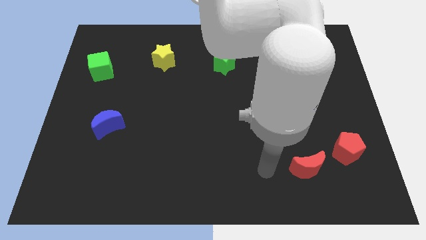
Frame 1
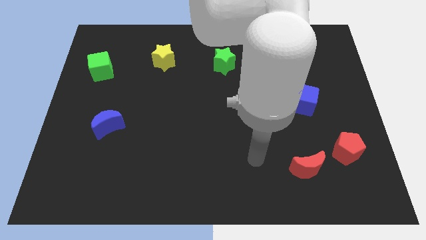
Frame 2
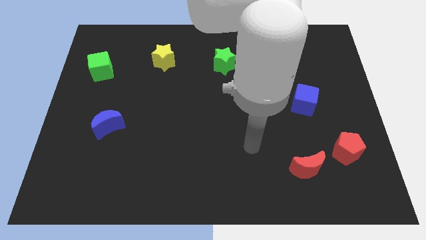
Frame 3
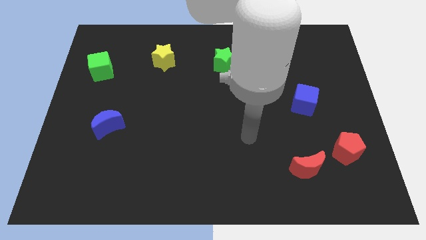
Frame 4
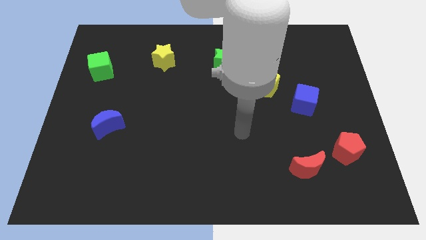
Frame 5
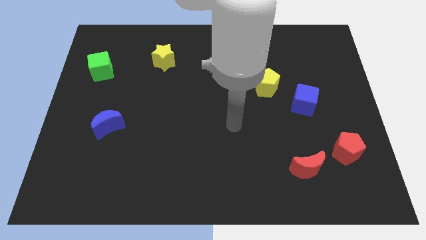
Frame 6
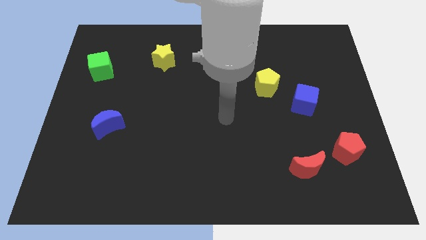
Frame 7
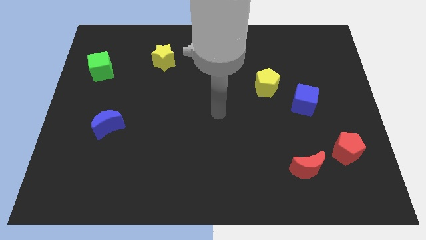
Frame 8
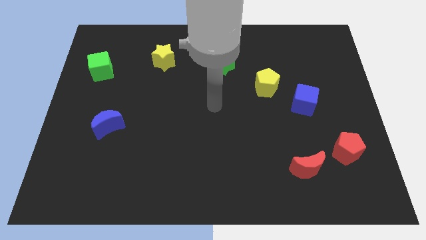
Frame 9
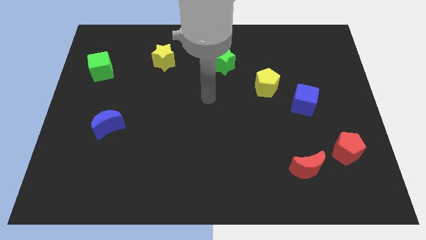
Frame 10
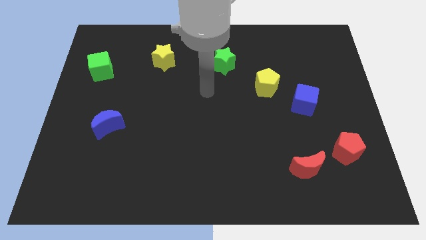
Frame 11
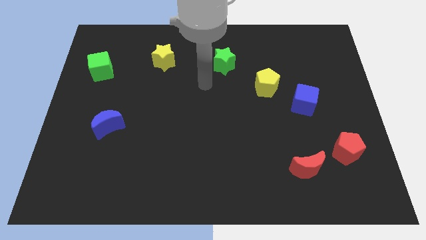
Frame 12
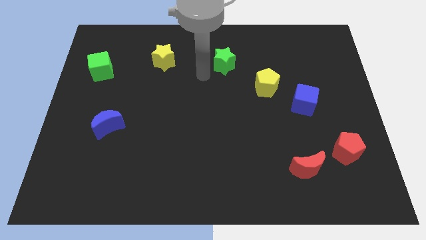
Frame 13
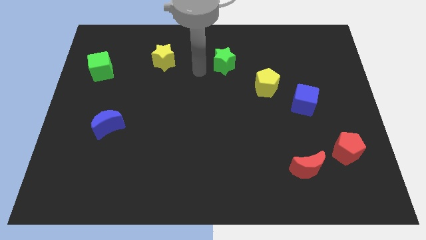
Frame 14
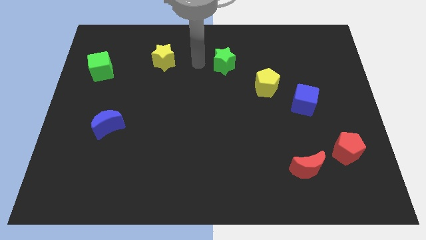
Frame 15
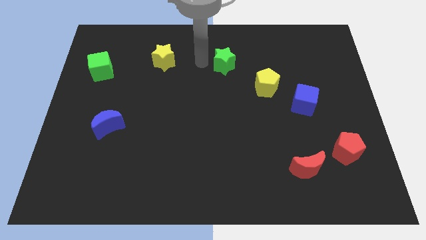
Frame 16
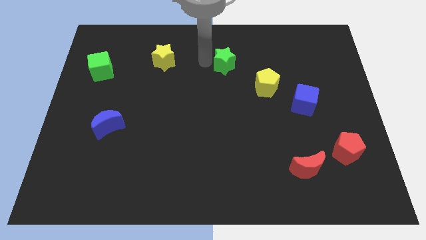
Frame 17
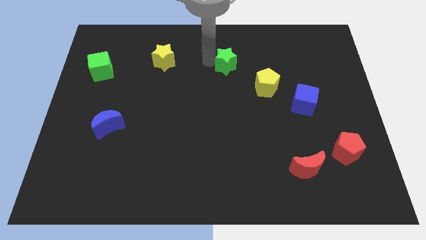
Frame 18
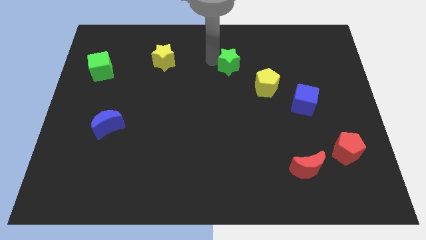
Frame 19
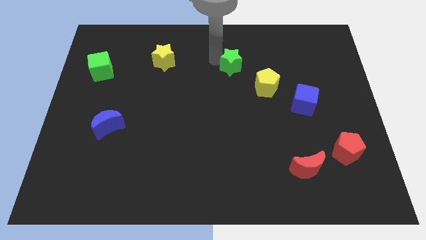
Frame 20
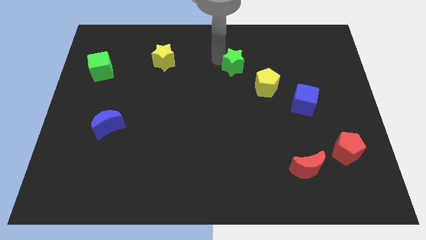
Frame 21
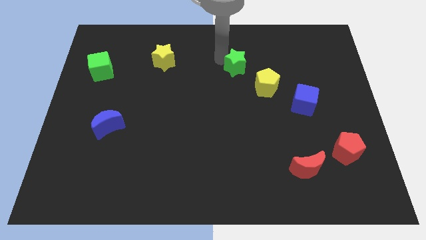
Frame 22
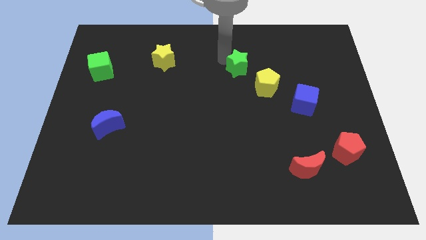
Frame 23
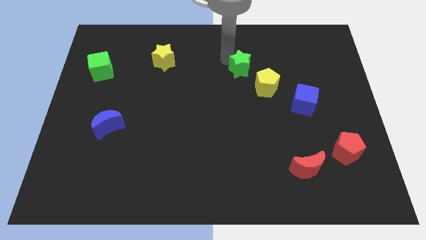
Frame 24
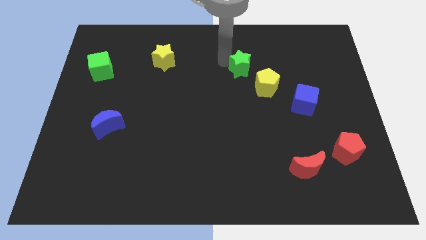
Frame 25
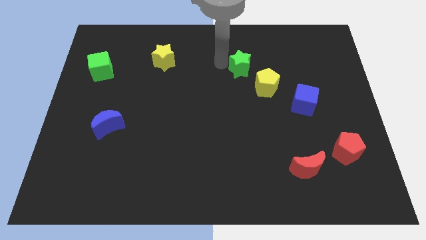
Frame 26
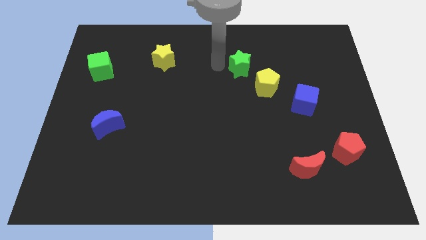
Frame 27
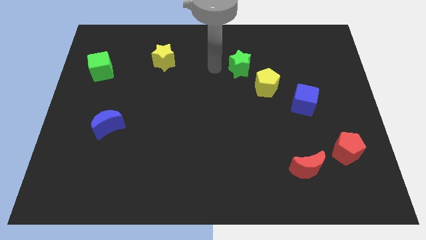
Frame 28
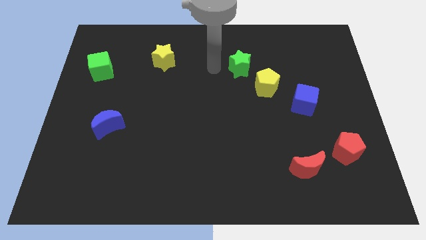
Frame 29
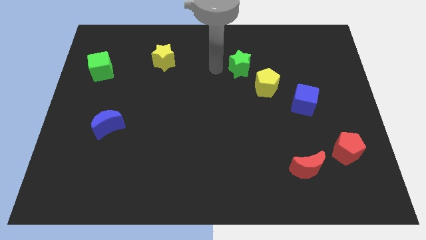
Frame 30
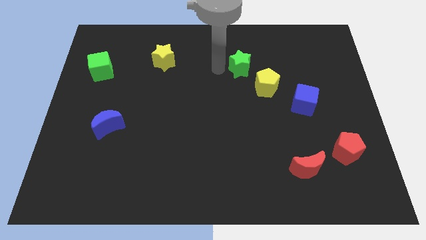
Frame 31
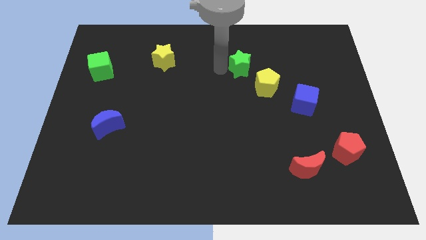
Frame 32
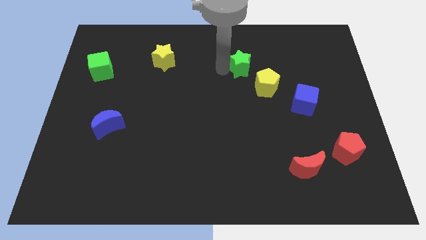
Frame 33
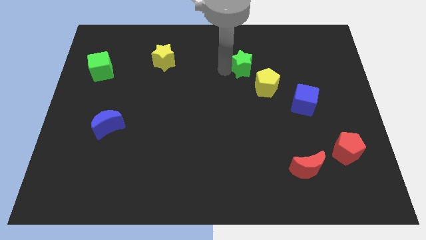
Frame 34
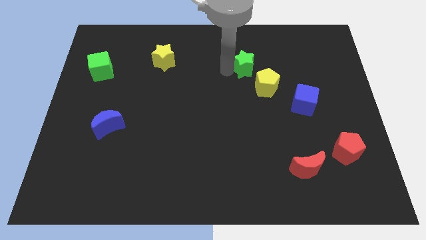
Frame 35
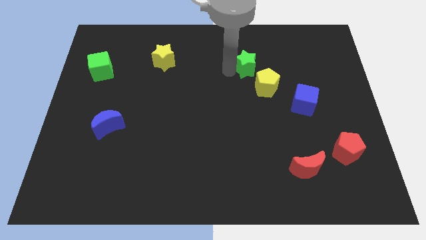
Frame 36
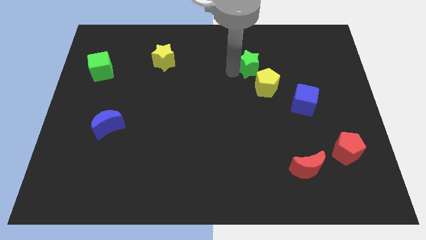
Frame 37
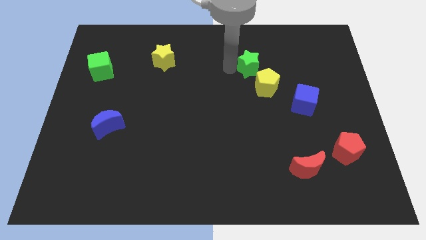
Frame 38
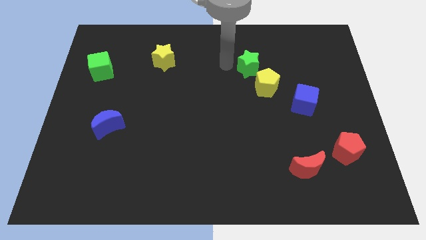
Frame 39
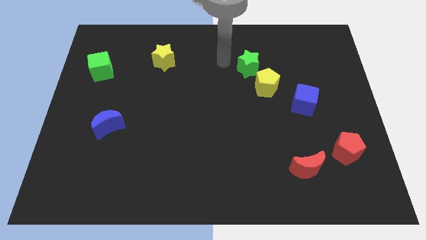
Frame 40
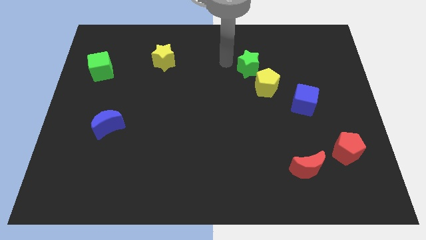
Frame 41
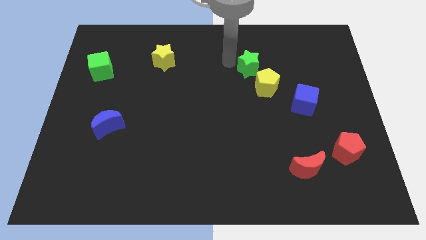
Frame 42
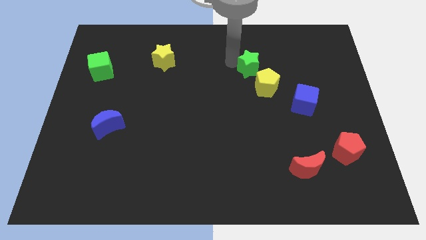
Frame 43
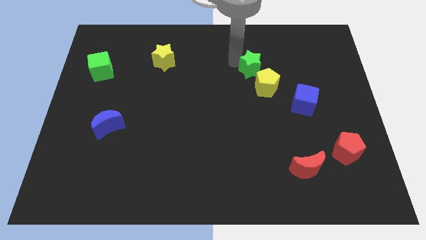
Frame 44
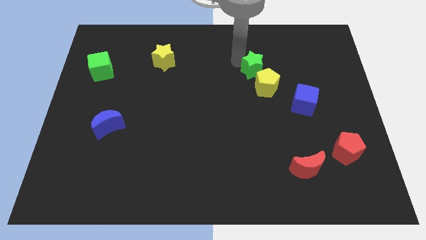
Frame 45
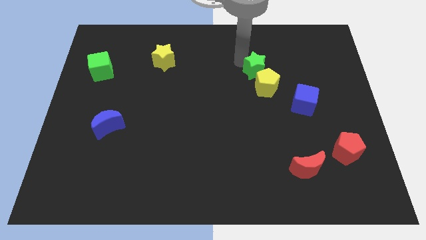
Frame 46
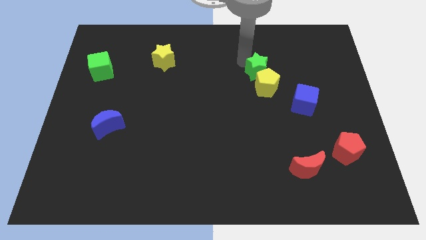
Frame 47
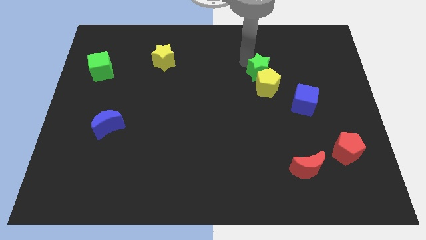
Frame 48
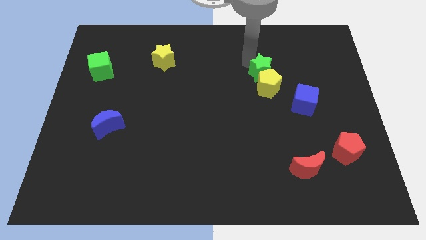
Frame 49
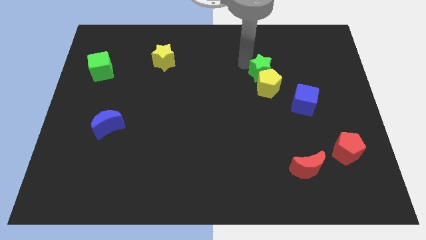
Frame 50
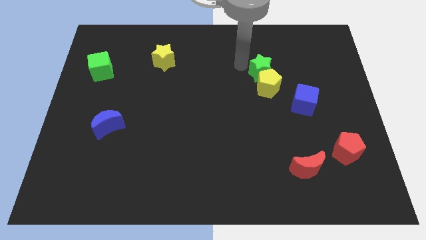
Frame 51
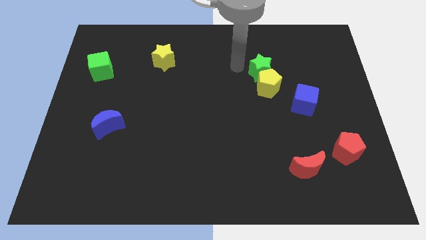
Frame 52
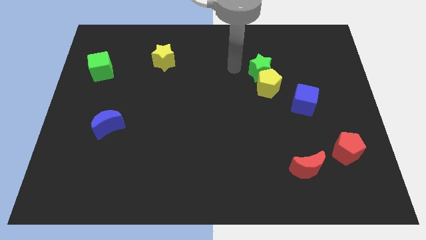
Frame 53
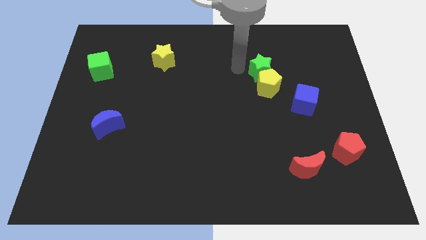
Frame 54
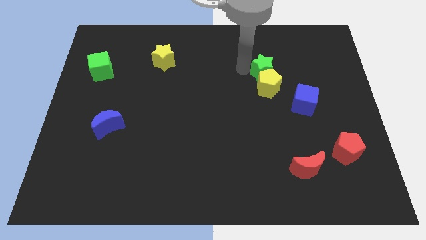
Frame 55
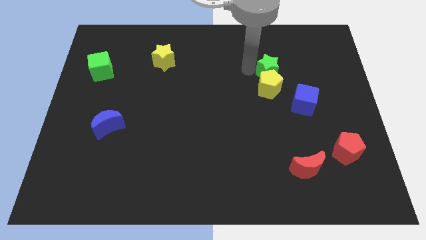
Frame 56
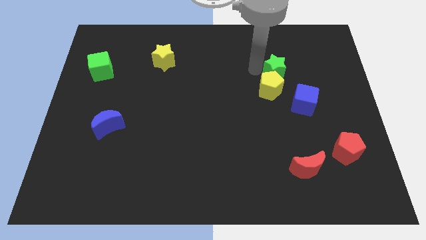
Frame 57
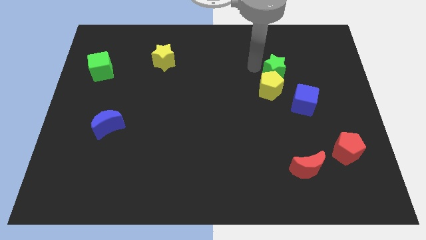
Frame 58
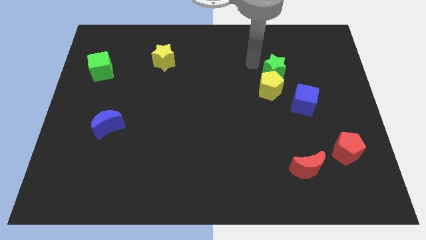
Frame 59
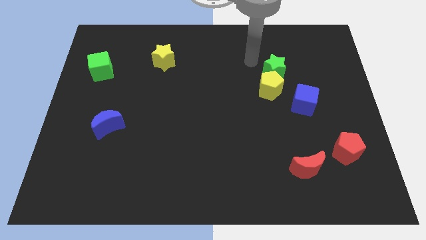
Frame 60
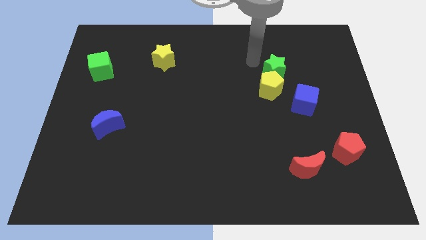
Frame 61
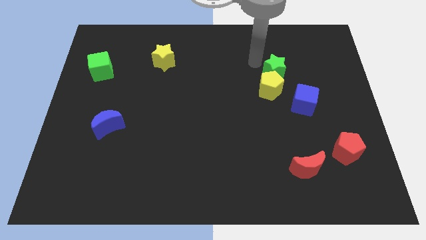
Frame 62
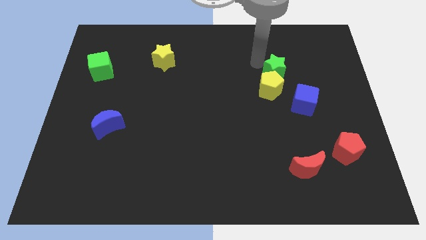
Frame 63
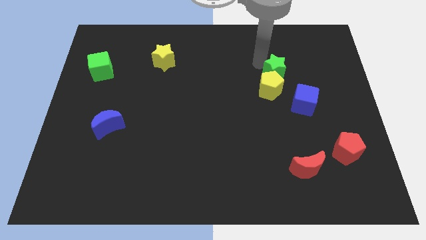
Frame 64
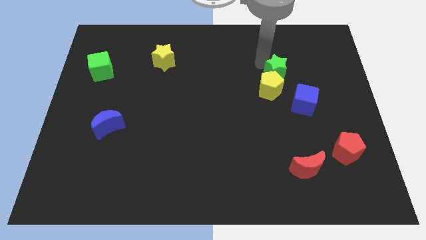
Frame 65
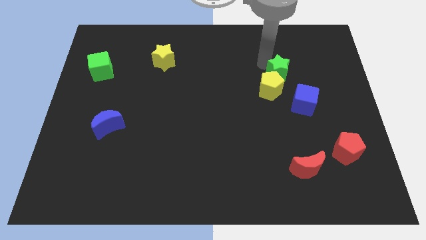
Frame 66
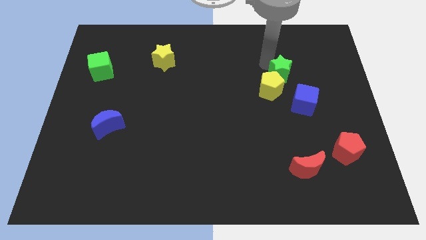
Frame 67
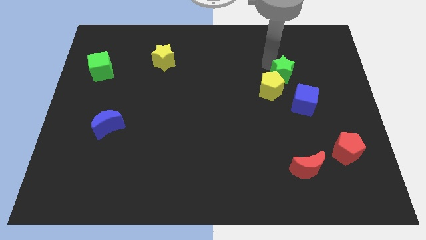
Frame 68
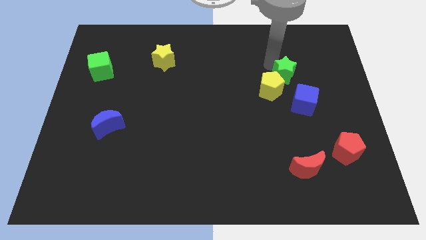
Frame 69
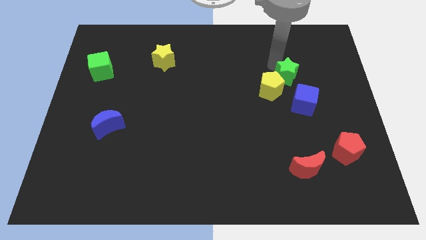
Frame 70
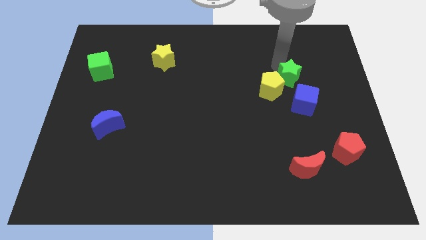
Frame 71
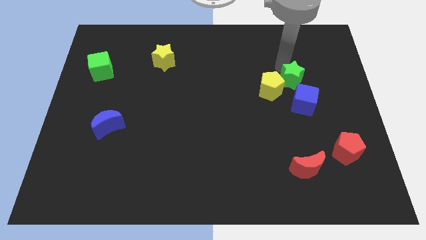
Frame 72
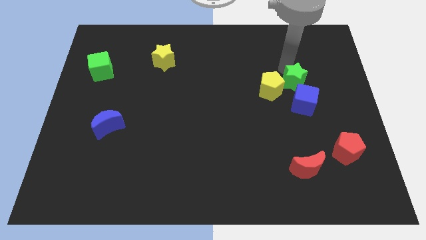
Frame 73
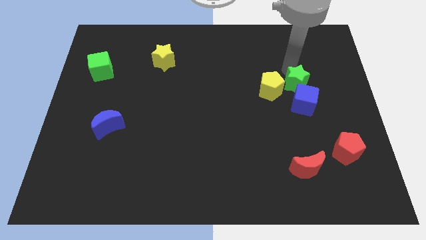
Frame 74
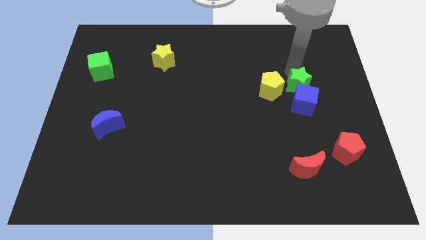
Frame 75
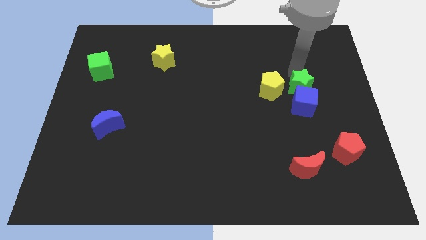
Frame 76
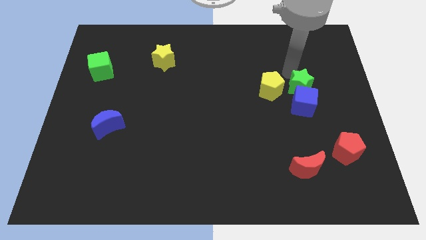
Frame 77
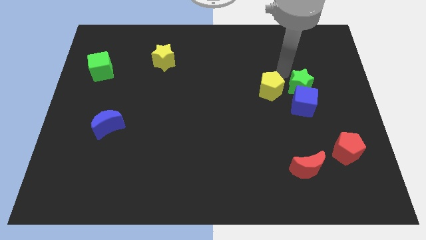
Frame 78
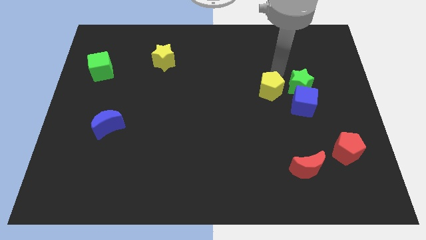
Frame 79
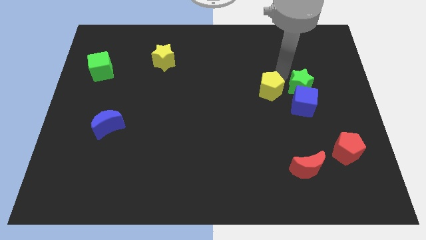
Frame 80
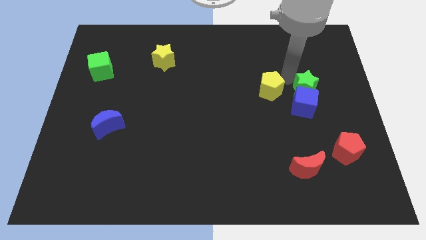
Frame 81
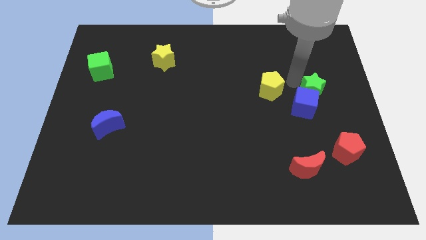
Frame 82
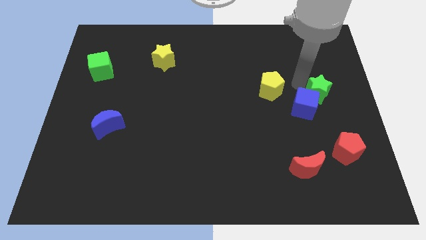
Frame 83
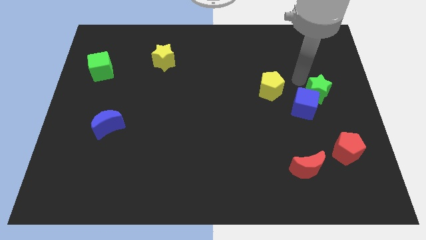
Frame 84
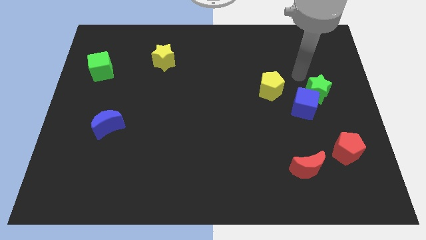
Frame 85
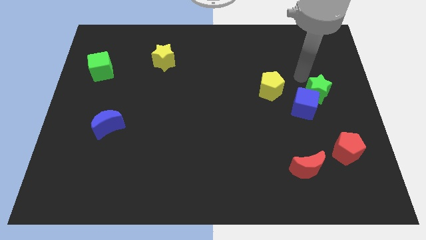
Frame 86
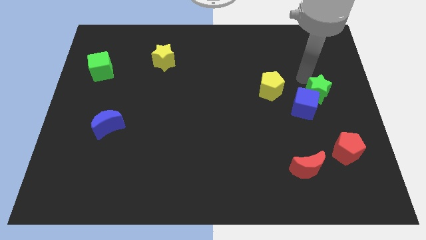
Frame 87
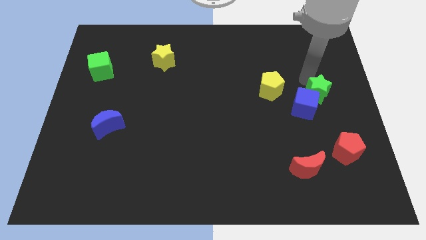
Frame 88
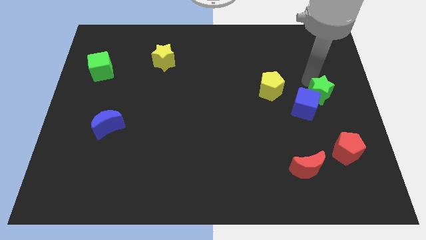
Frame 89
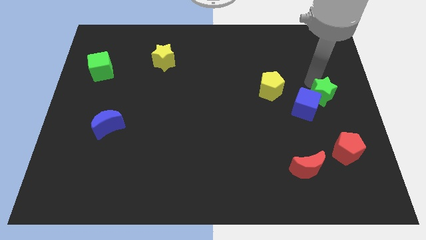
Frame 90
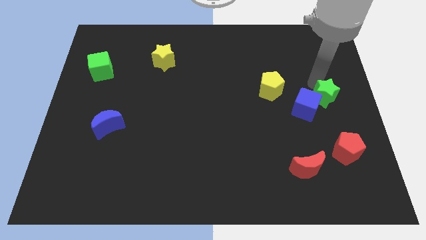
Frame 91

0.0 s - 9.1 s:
move the green star to the top of the red pentagon
